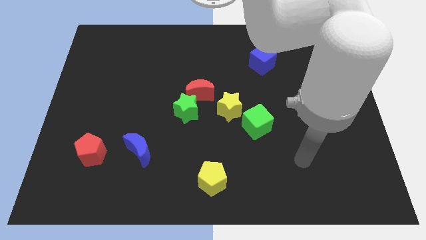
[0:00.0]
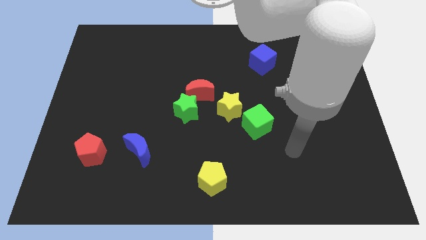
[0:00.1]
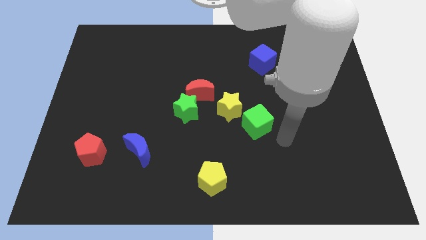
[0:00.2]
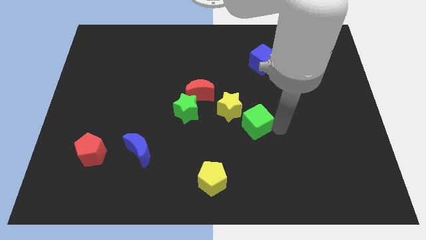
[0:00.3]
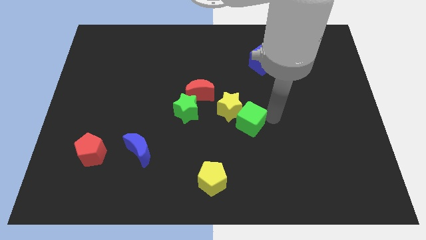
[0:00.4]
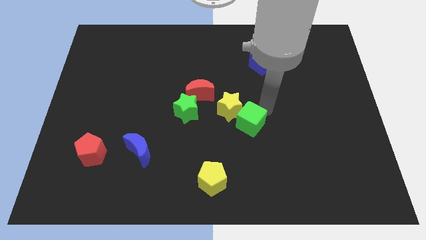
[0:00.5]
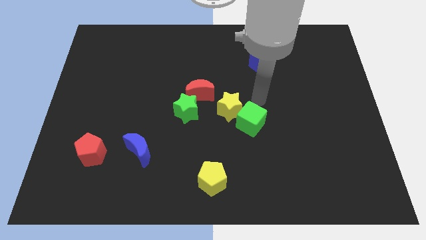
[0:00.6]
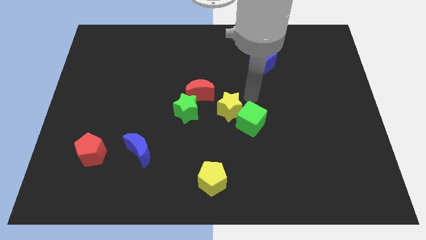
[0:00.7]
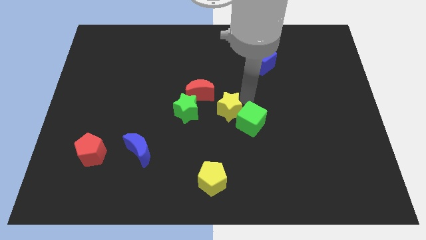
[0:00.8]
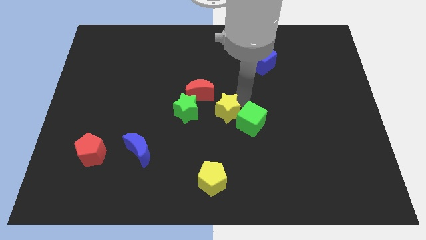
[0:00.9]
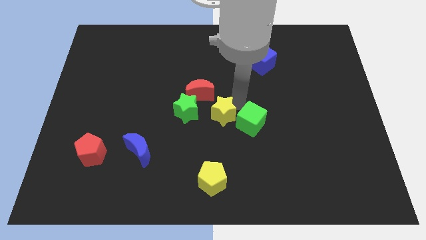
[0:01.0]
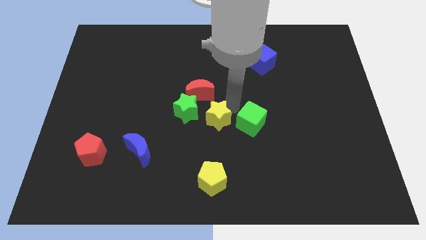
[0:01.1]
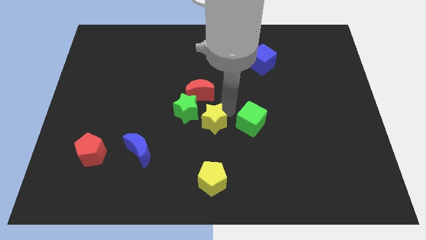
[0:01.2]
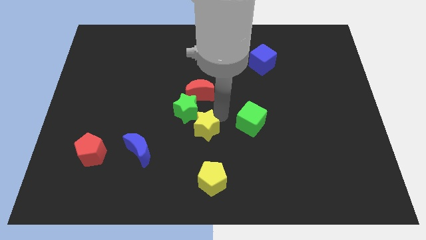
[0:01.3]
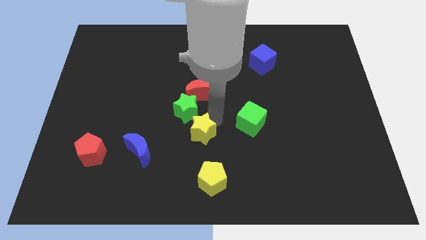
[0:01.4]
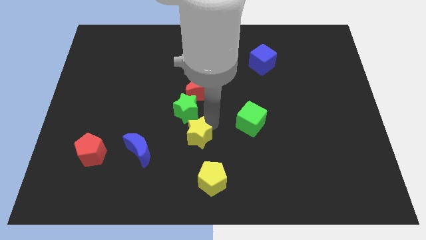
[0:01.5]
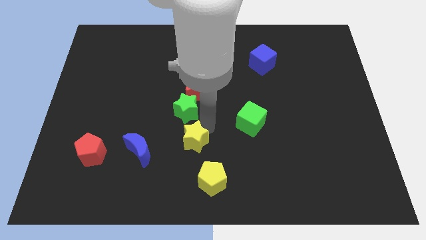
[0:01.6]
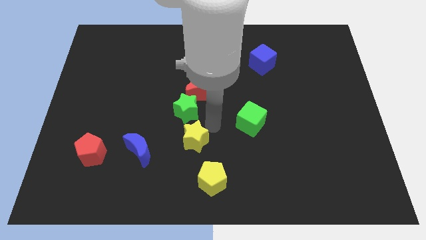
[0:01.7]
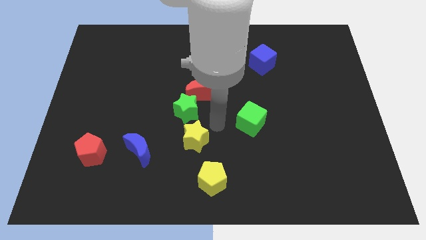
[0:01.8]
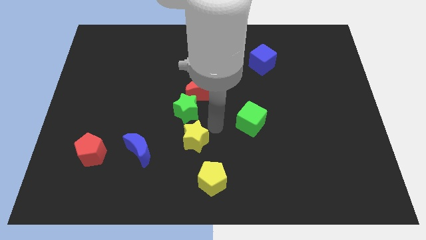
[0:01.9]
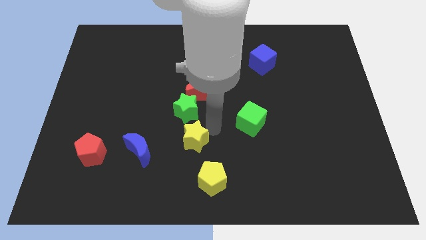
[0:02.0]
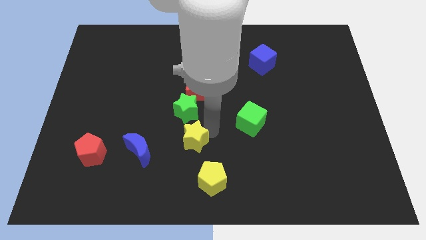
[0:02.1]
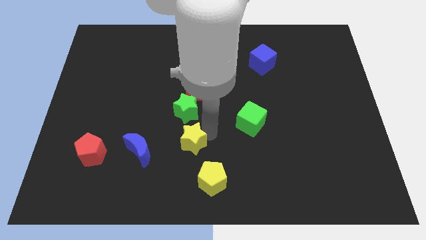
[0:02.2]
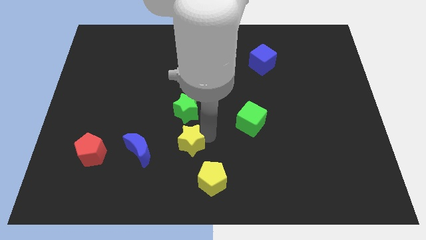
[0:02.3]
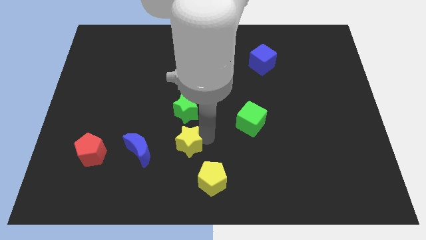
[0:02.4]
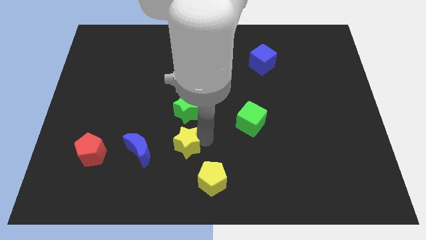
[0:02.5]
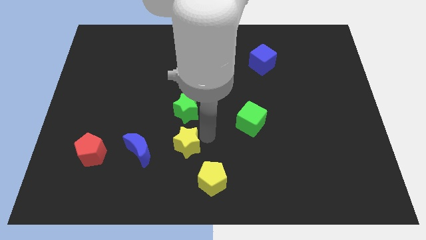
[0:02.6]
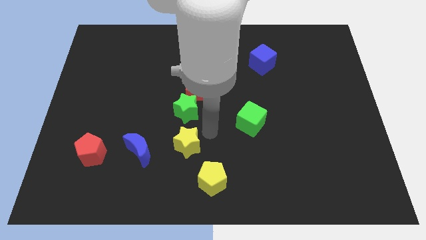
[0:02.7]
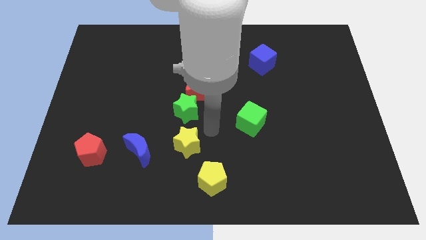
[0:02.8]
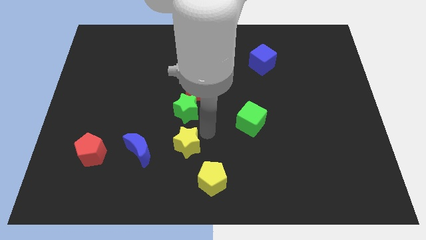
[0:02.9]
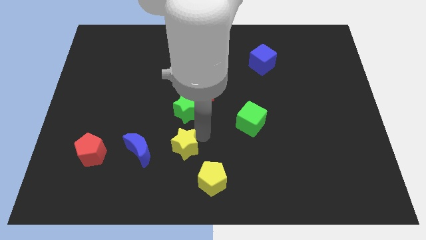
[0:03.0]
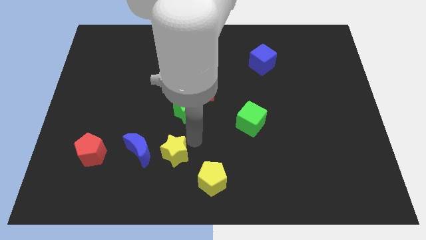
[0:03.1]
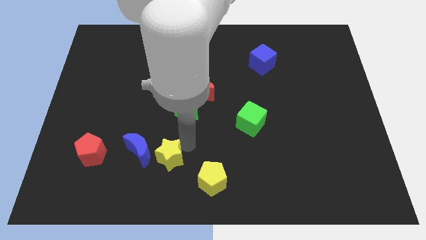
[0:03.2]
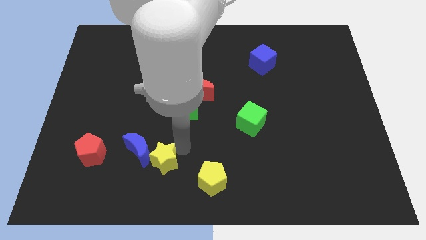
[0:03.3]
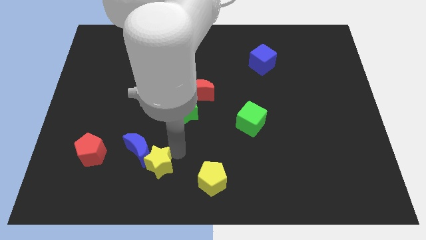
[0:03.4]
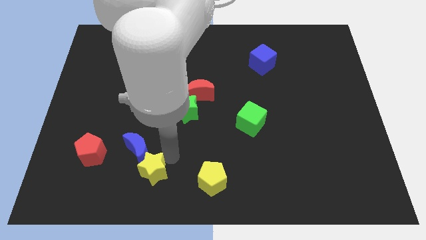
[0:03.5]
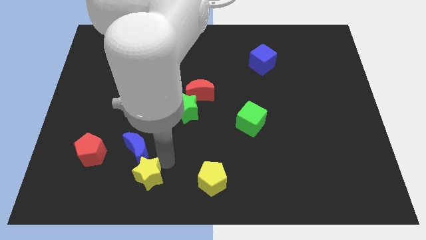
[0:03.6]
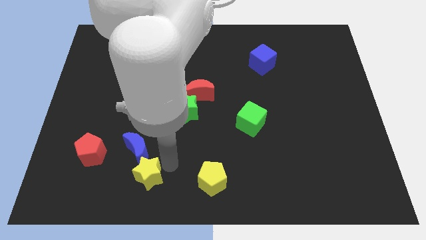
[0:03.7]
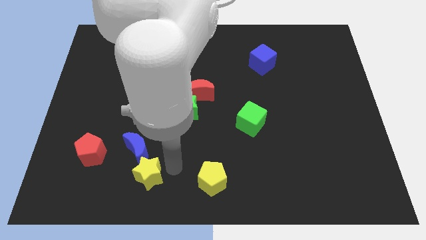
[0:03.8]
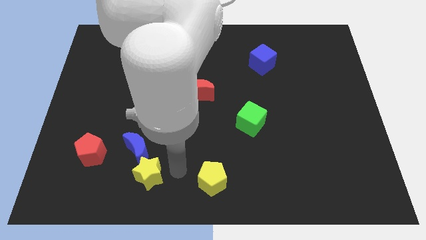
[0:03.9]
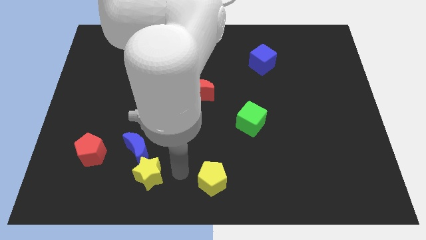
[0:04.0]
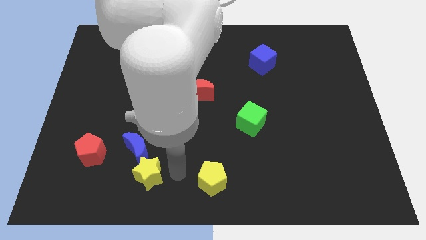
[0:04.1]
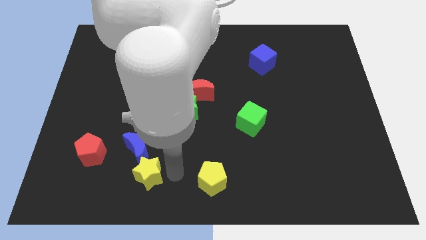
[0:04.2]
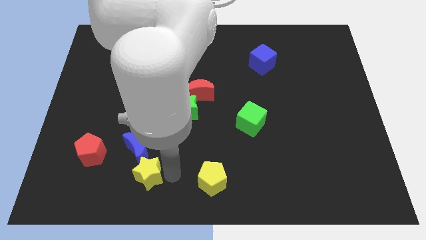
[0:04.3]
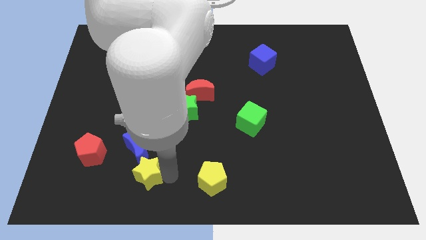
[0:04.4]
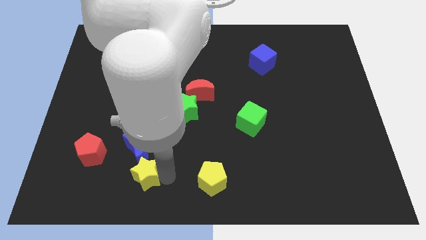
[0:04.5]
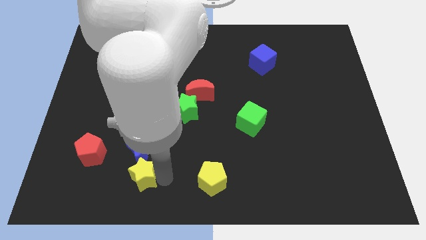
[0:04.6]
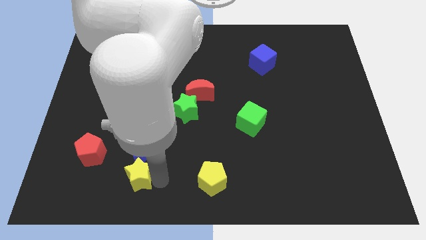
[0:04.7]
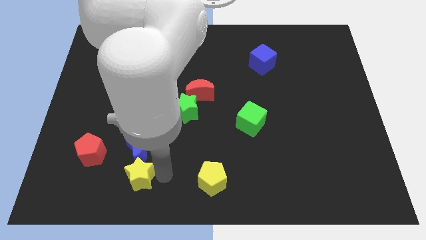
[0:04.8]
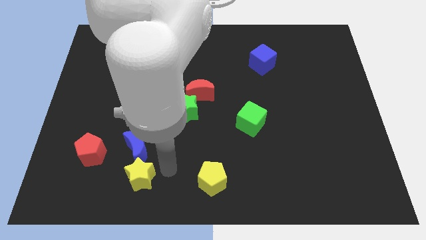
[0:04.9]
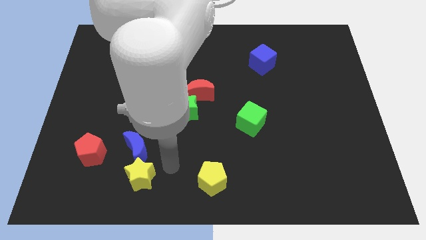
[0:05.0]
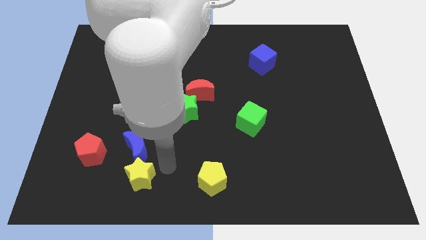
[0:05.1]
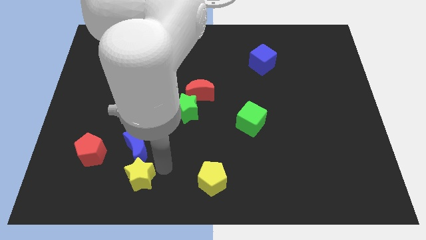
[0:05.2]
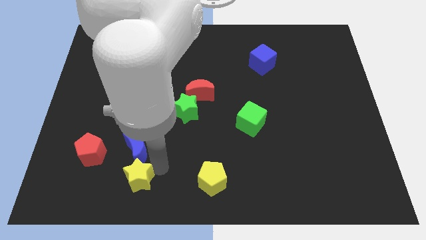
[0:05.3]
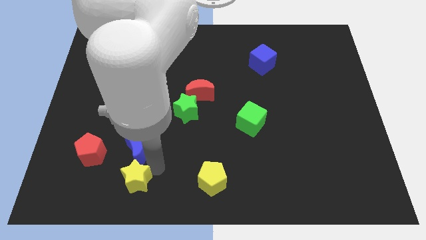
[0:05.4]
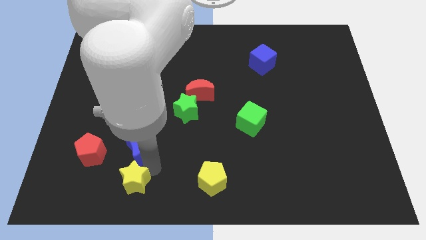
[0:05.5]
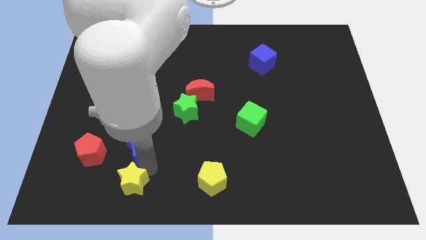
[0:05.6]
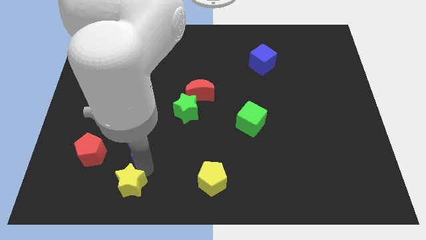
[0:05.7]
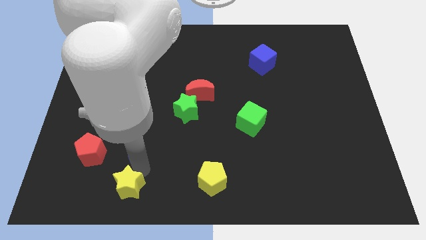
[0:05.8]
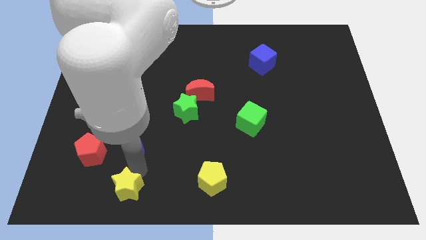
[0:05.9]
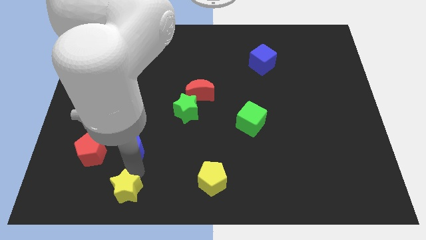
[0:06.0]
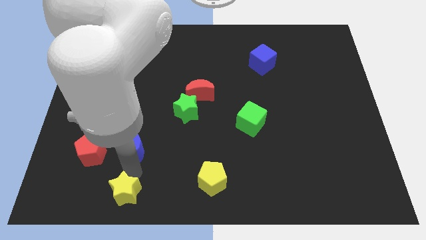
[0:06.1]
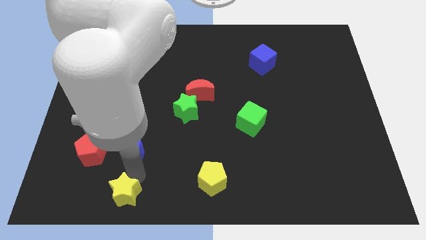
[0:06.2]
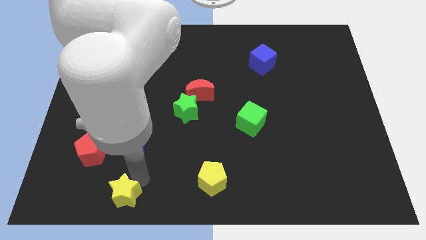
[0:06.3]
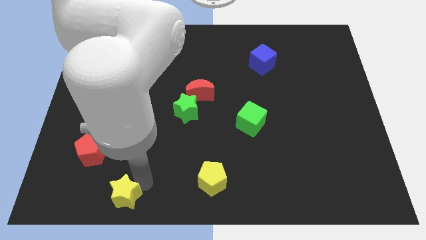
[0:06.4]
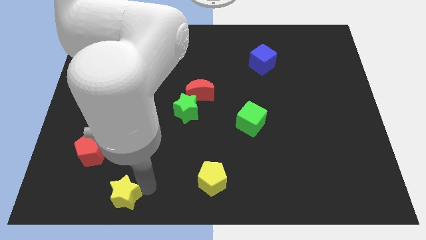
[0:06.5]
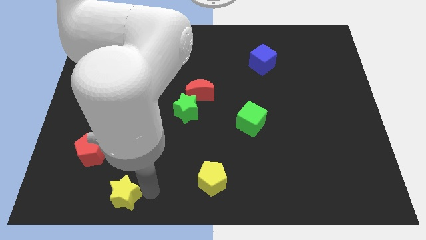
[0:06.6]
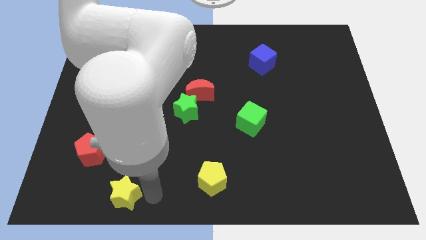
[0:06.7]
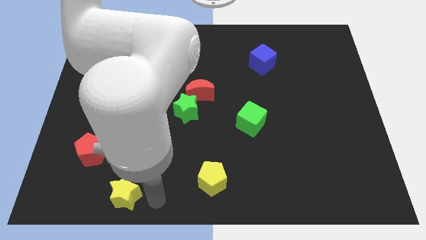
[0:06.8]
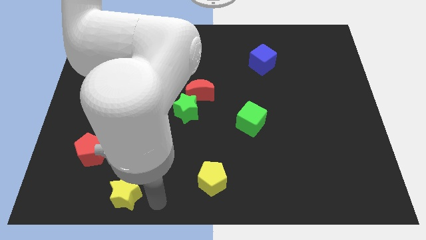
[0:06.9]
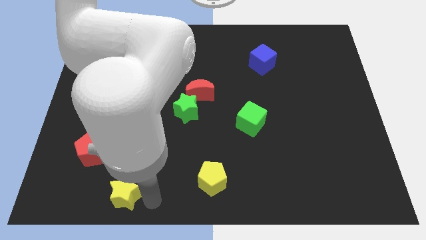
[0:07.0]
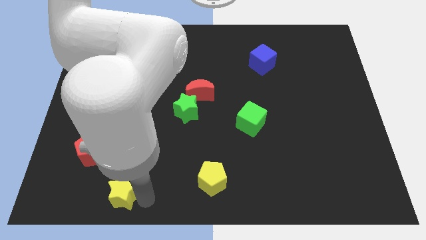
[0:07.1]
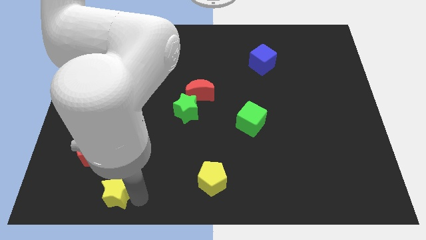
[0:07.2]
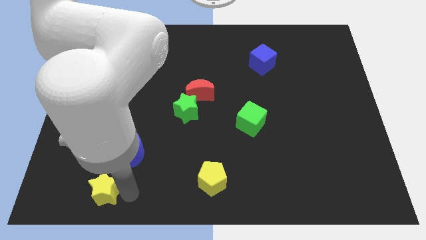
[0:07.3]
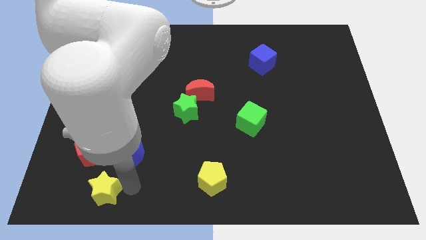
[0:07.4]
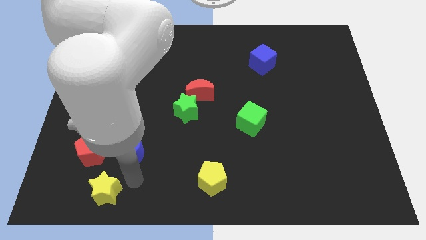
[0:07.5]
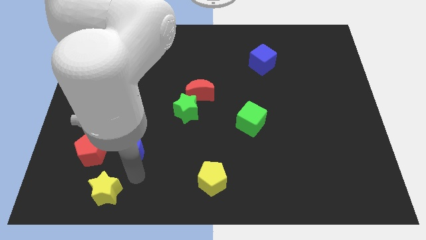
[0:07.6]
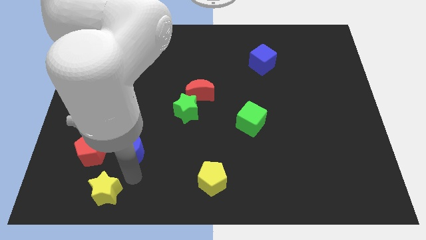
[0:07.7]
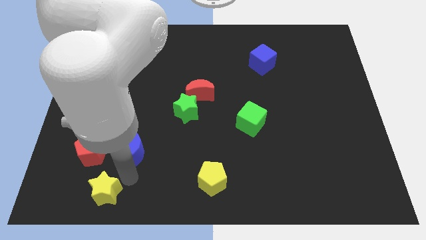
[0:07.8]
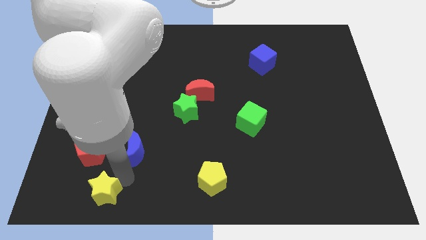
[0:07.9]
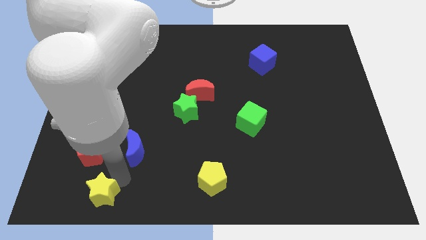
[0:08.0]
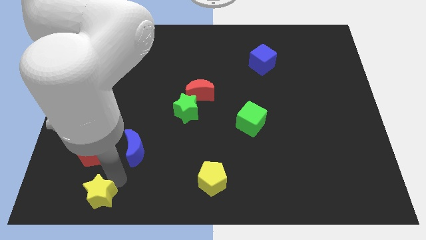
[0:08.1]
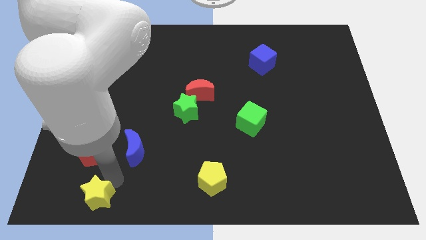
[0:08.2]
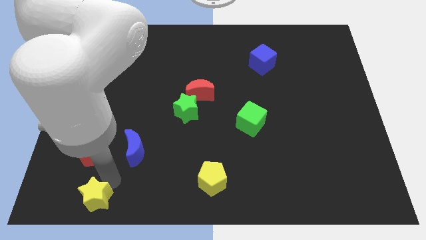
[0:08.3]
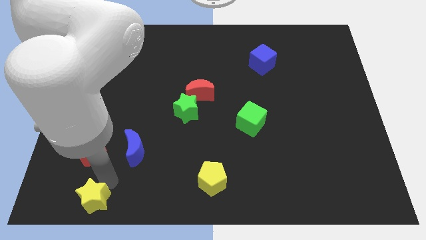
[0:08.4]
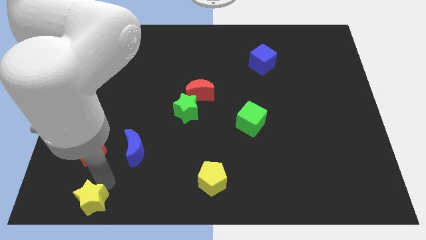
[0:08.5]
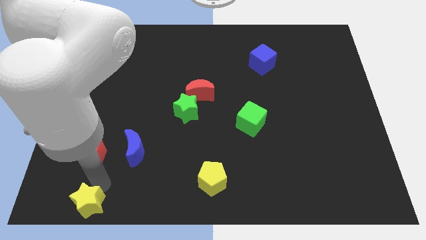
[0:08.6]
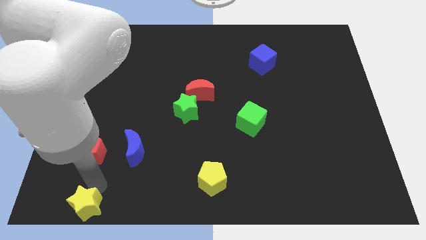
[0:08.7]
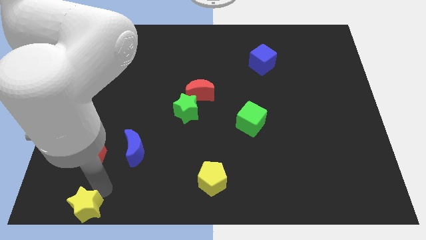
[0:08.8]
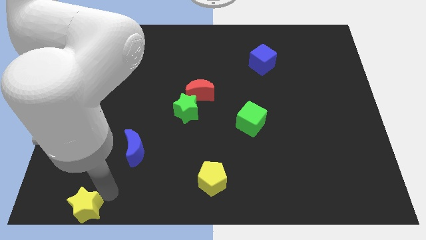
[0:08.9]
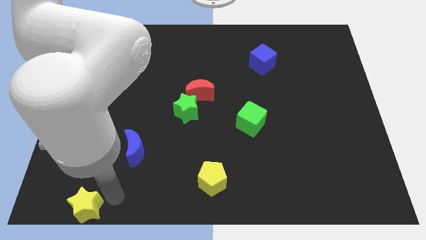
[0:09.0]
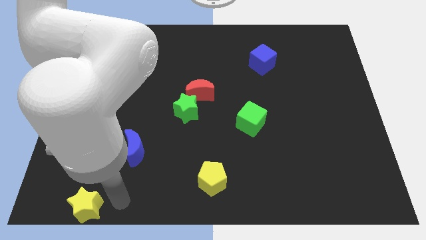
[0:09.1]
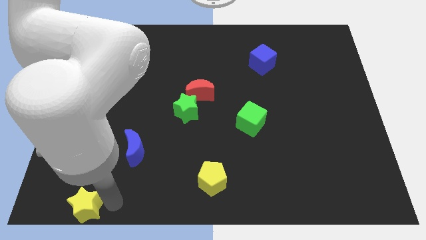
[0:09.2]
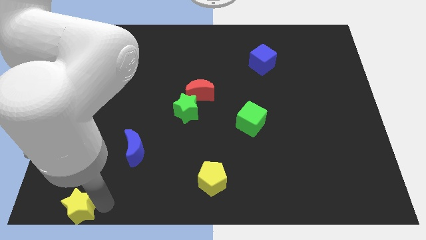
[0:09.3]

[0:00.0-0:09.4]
put the yellow star to the lower left corner
